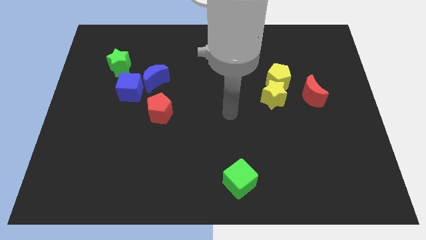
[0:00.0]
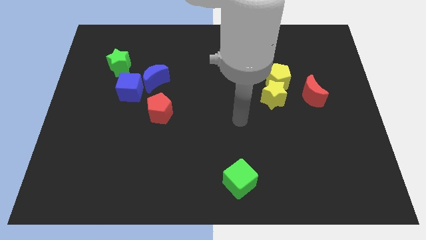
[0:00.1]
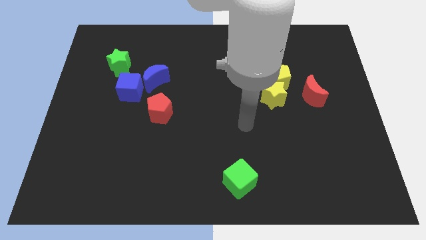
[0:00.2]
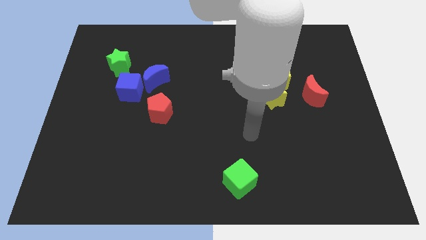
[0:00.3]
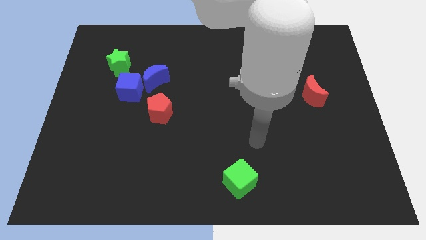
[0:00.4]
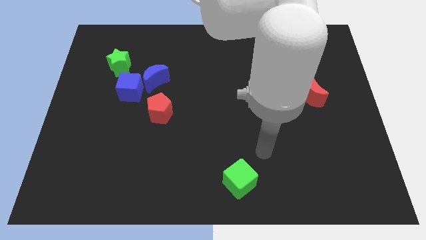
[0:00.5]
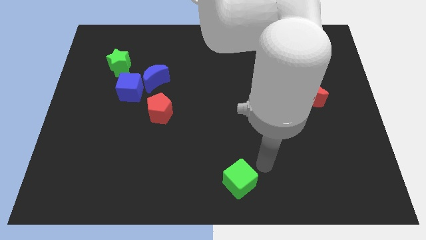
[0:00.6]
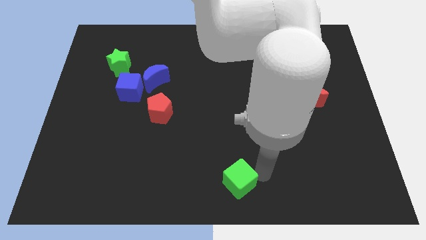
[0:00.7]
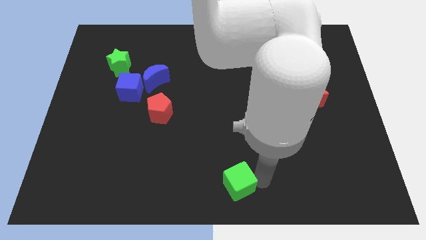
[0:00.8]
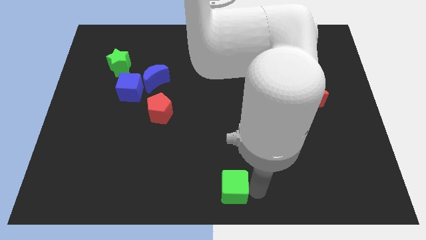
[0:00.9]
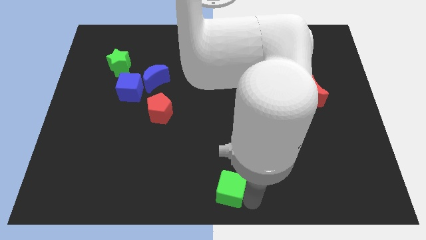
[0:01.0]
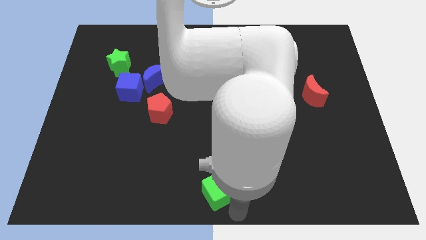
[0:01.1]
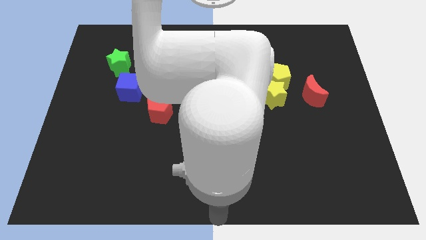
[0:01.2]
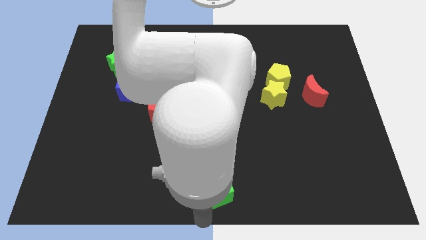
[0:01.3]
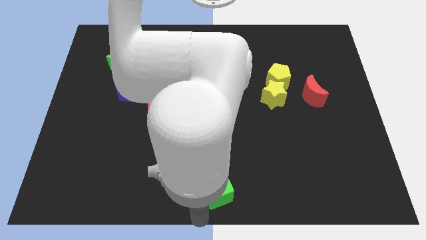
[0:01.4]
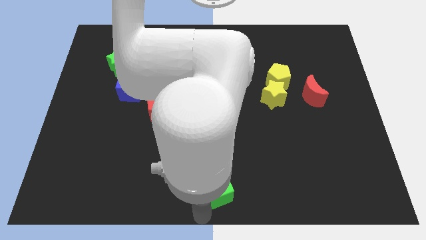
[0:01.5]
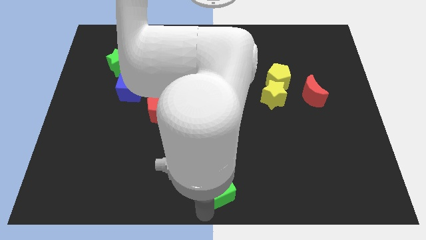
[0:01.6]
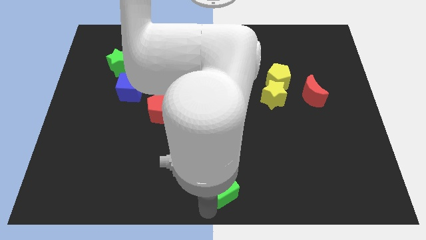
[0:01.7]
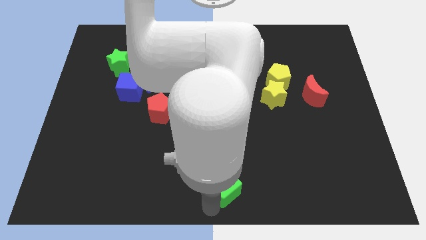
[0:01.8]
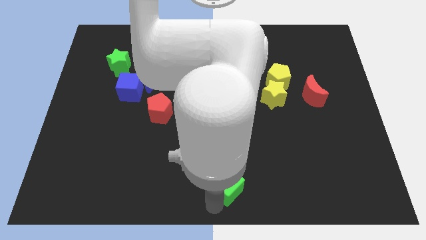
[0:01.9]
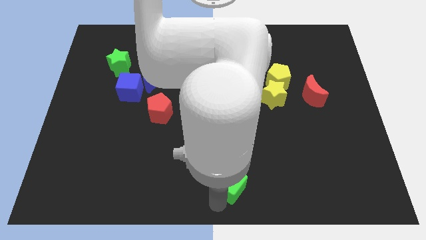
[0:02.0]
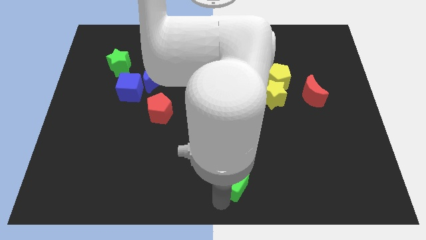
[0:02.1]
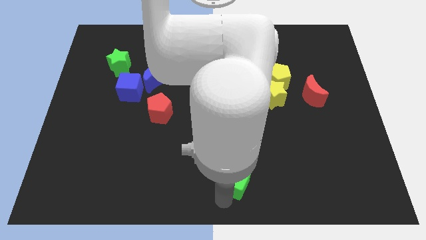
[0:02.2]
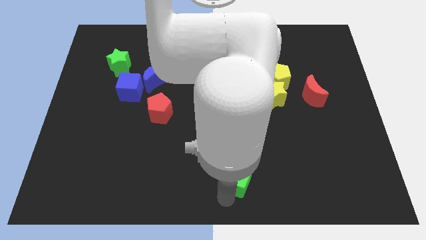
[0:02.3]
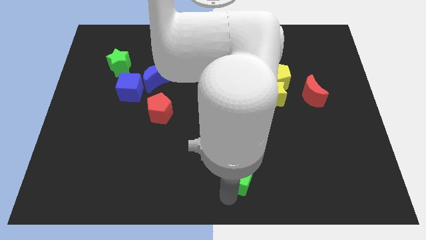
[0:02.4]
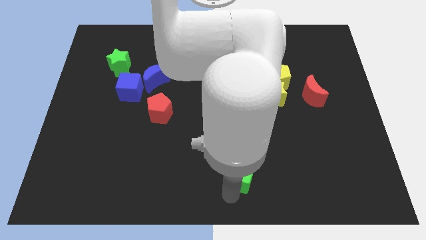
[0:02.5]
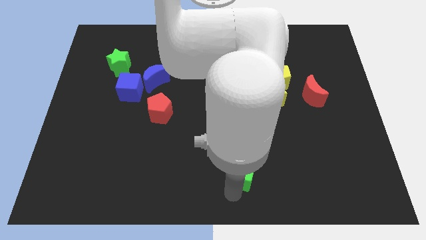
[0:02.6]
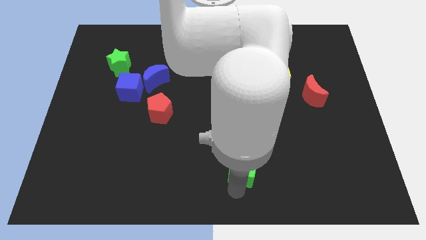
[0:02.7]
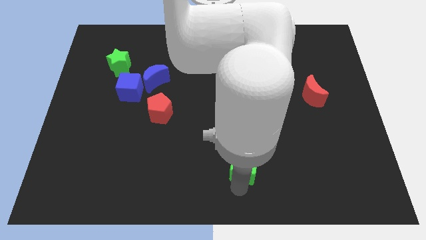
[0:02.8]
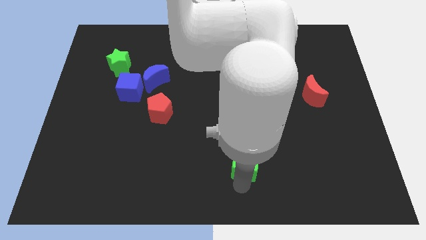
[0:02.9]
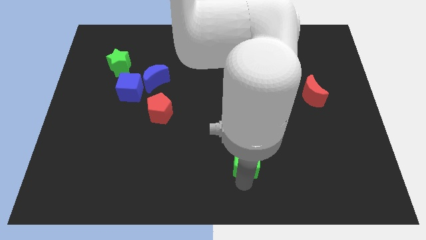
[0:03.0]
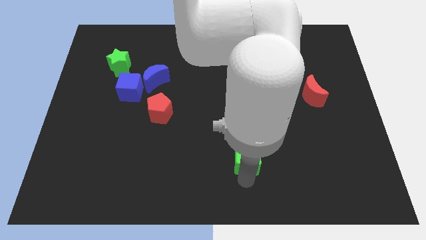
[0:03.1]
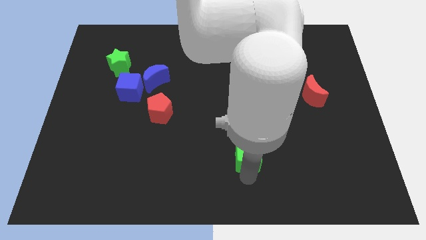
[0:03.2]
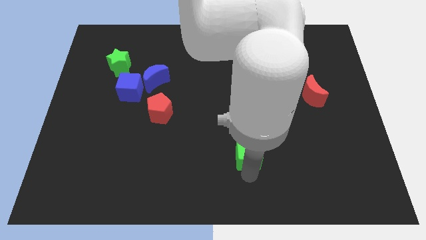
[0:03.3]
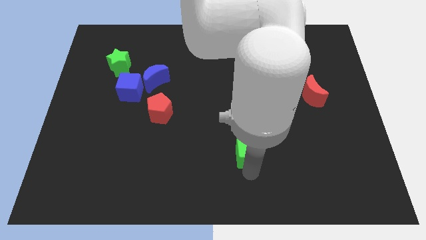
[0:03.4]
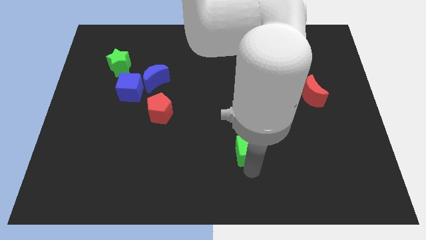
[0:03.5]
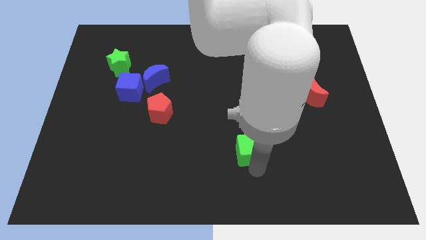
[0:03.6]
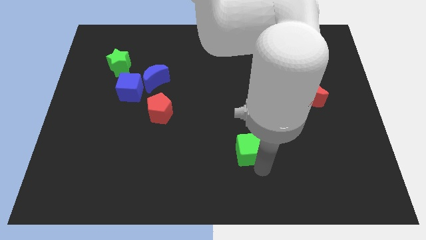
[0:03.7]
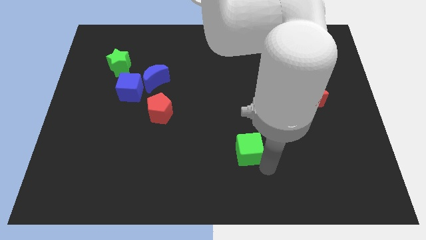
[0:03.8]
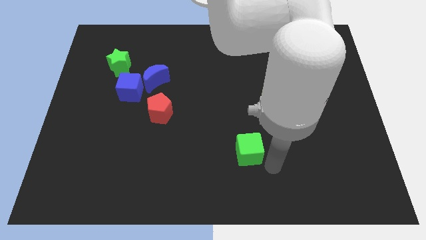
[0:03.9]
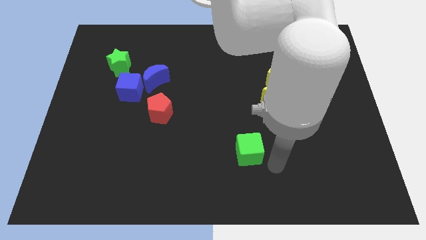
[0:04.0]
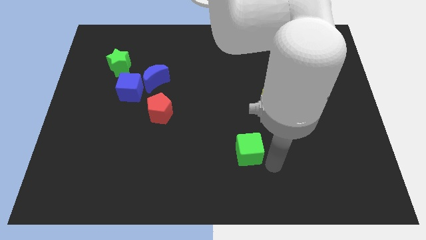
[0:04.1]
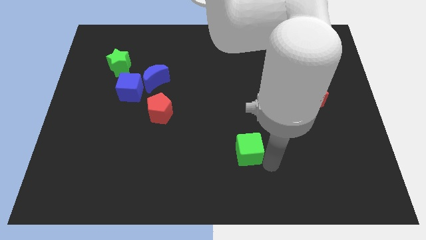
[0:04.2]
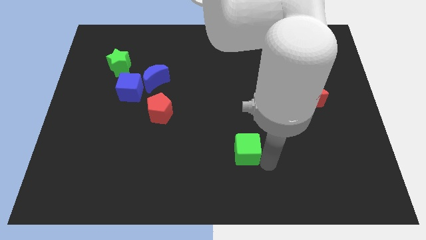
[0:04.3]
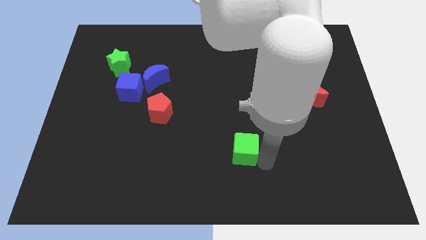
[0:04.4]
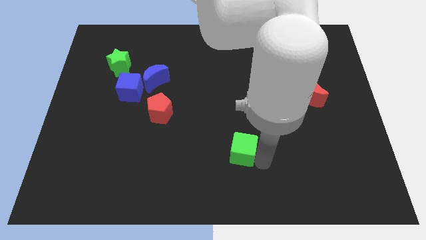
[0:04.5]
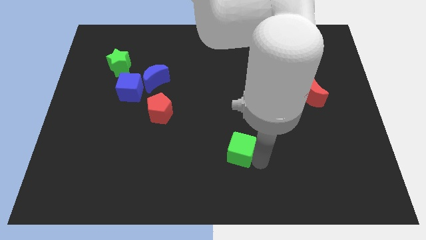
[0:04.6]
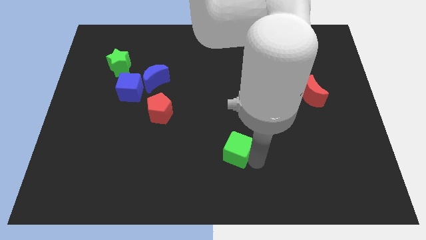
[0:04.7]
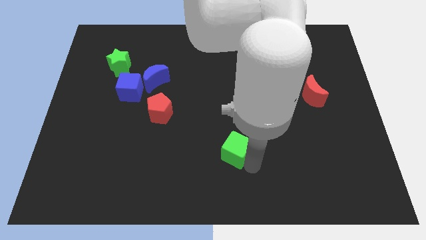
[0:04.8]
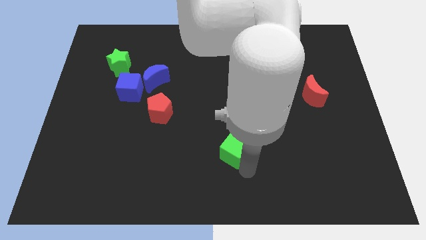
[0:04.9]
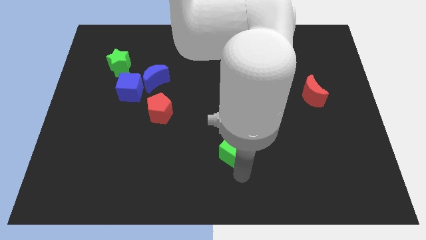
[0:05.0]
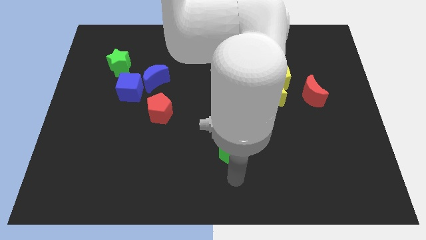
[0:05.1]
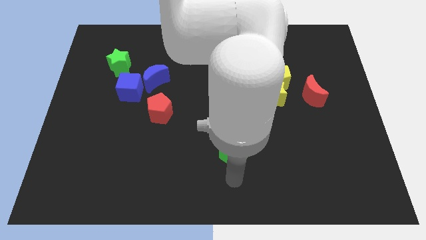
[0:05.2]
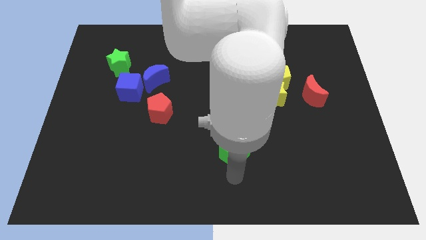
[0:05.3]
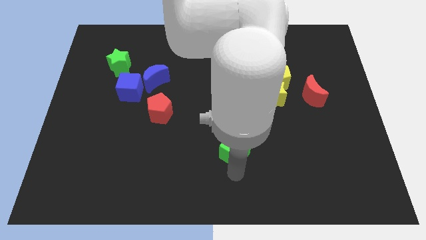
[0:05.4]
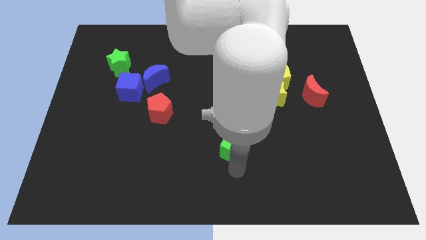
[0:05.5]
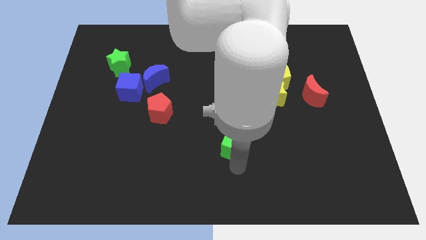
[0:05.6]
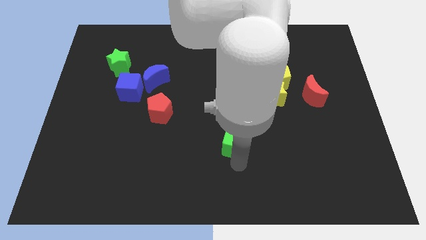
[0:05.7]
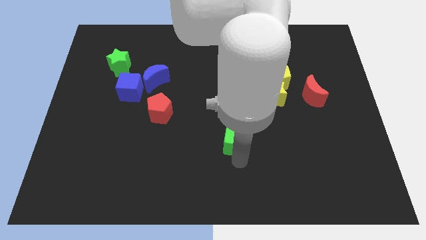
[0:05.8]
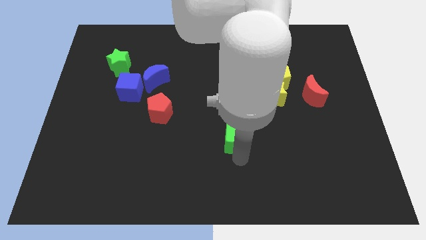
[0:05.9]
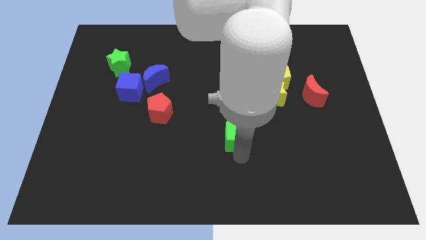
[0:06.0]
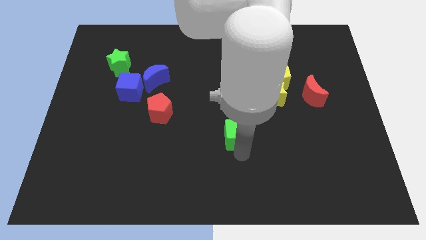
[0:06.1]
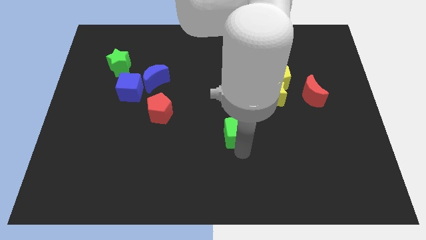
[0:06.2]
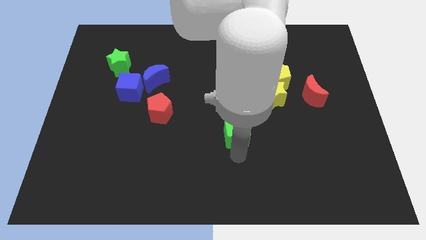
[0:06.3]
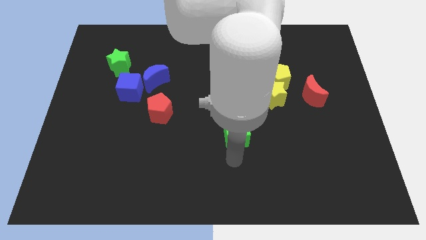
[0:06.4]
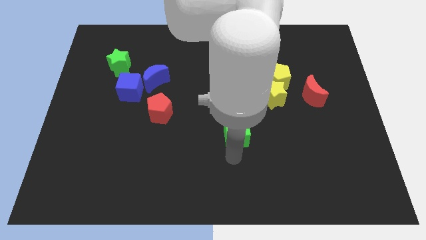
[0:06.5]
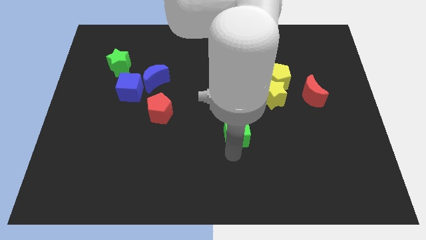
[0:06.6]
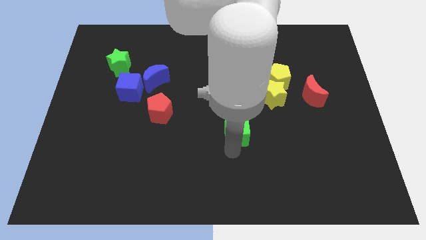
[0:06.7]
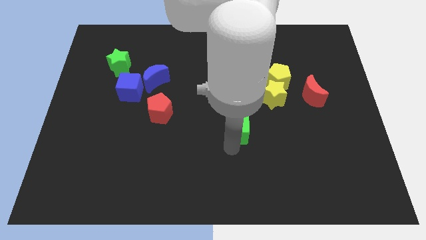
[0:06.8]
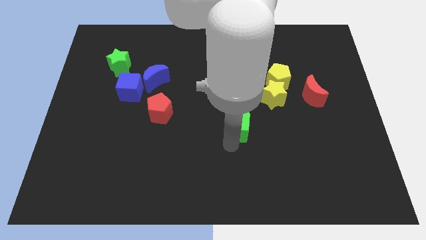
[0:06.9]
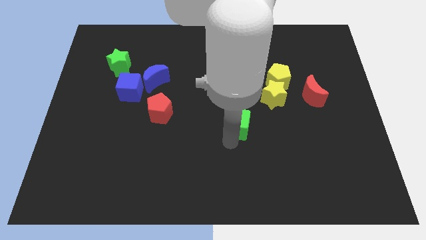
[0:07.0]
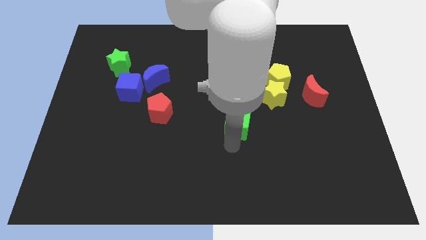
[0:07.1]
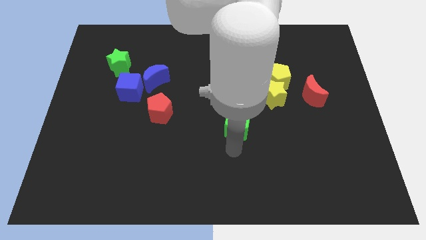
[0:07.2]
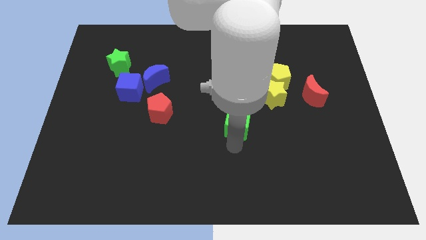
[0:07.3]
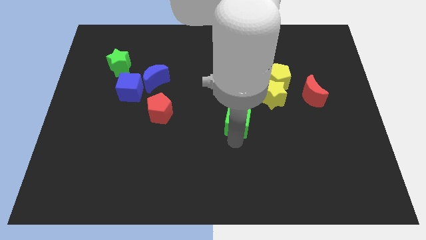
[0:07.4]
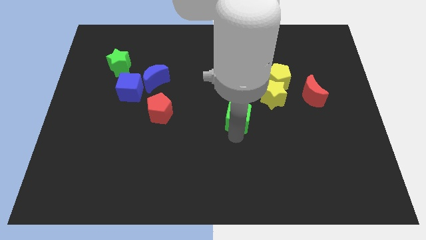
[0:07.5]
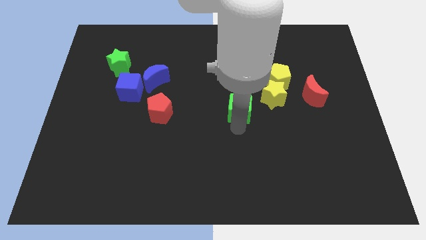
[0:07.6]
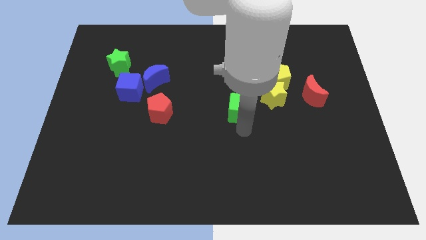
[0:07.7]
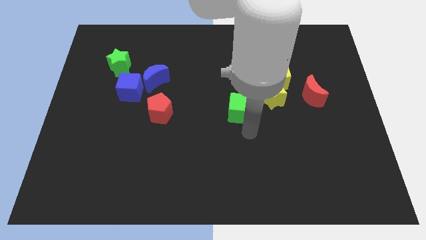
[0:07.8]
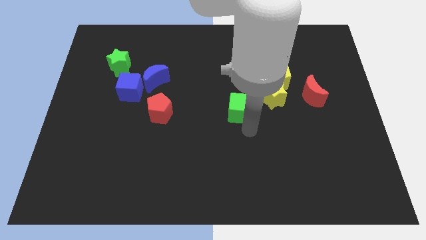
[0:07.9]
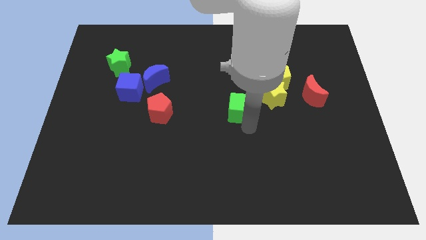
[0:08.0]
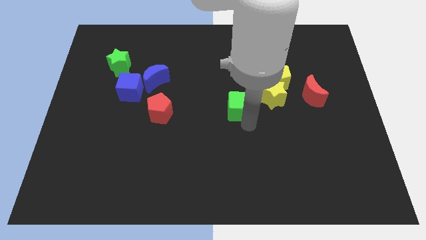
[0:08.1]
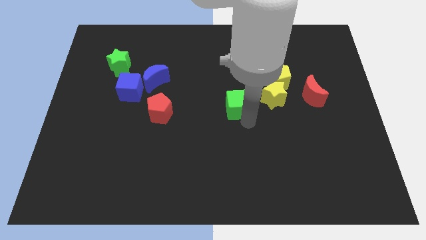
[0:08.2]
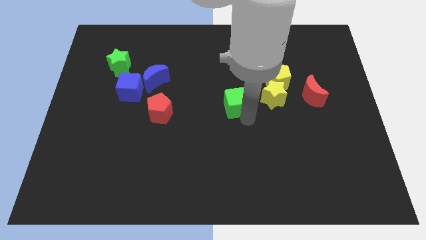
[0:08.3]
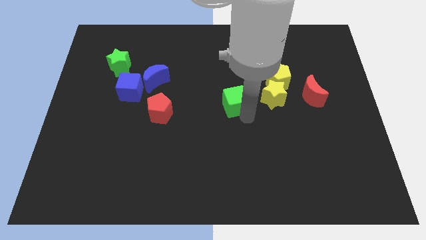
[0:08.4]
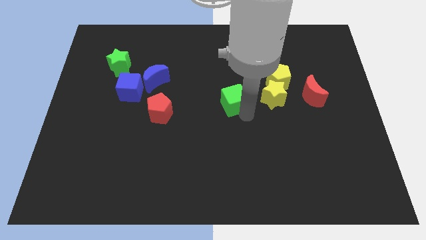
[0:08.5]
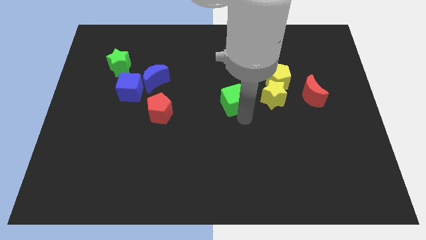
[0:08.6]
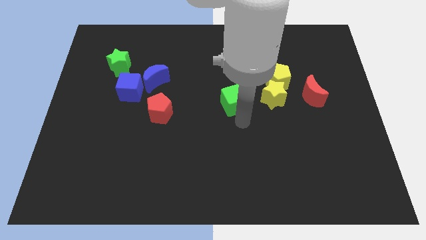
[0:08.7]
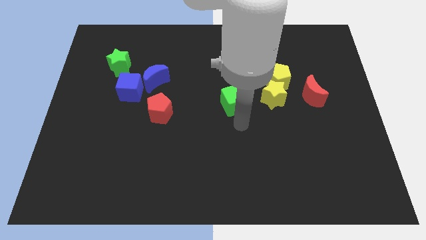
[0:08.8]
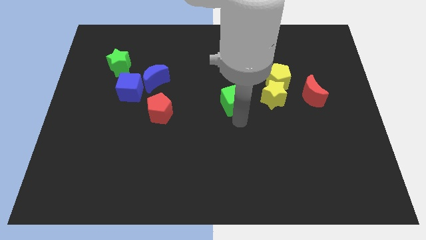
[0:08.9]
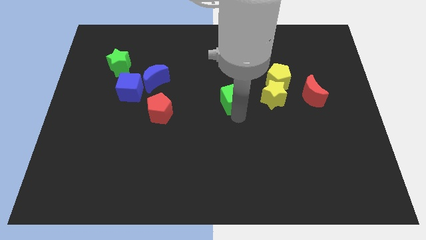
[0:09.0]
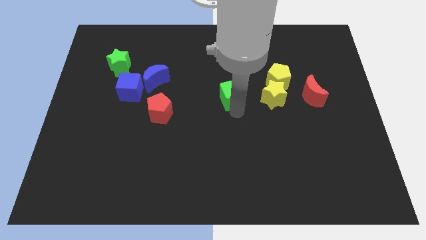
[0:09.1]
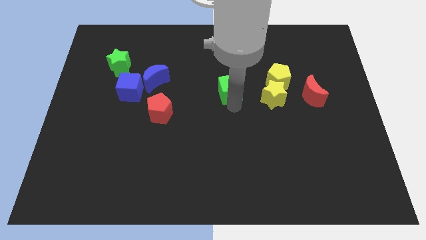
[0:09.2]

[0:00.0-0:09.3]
move the green cube to the left of the yellow pentagon
